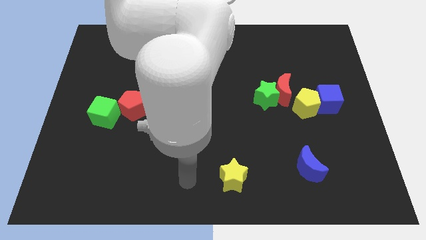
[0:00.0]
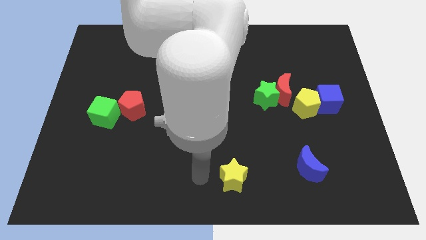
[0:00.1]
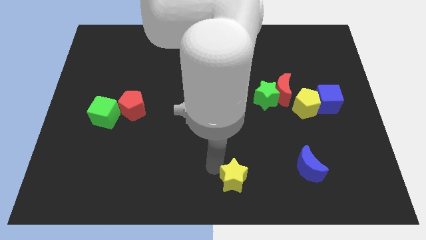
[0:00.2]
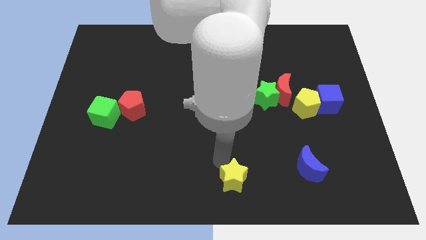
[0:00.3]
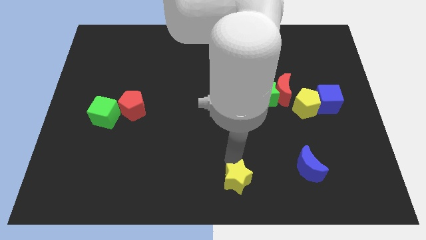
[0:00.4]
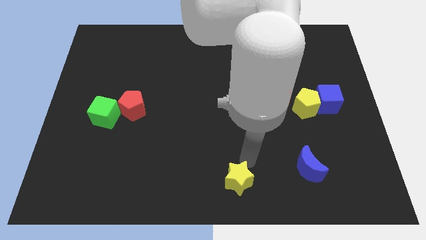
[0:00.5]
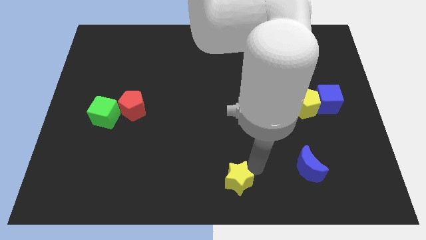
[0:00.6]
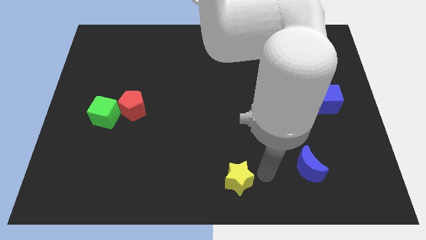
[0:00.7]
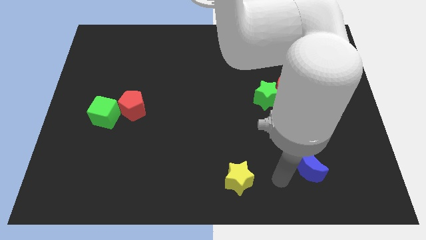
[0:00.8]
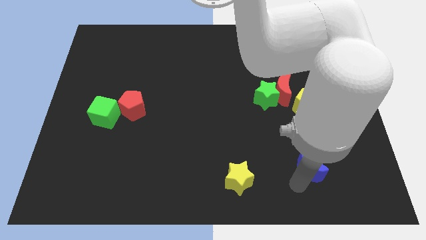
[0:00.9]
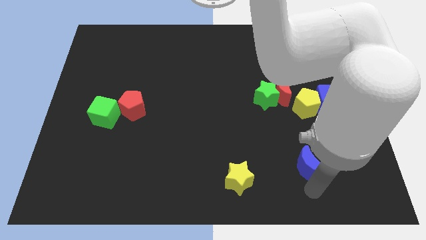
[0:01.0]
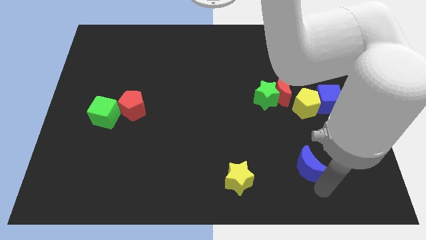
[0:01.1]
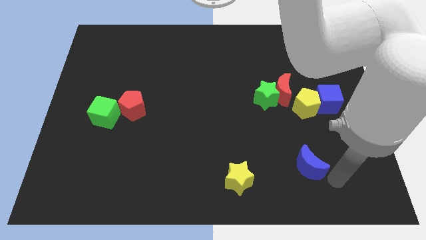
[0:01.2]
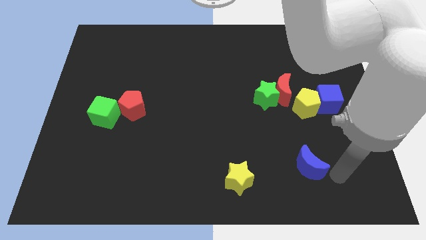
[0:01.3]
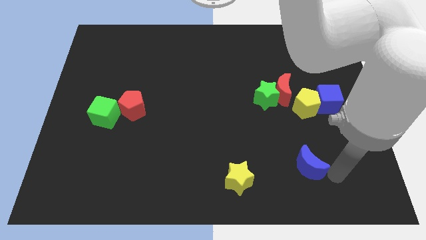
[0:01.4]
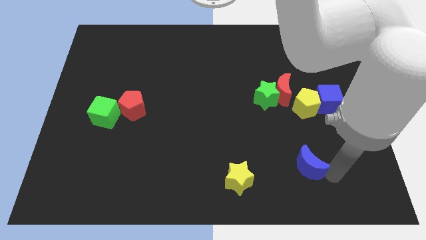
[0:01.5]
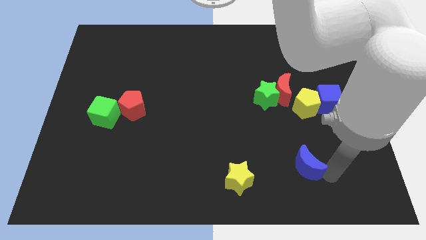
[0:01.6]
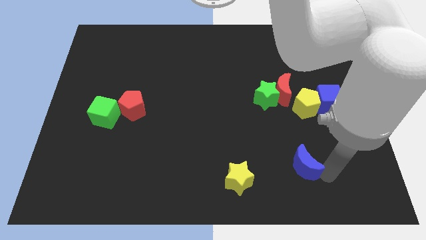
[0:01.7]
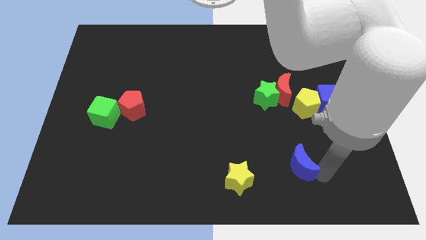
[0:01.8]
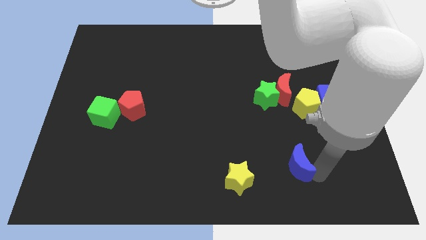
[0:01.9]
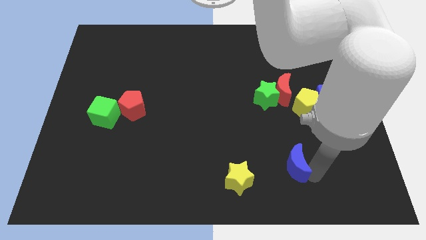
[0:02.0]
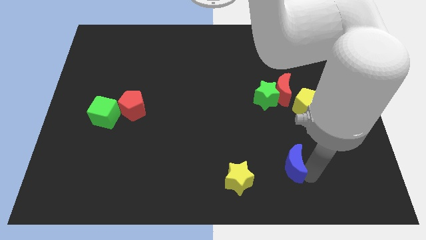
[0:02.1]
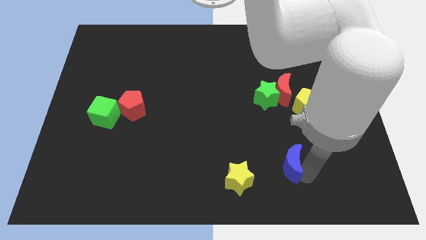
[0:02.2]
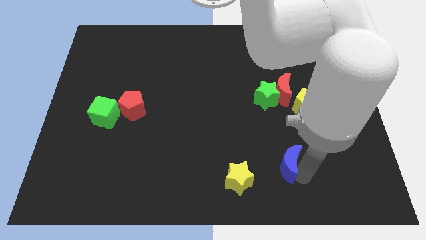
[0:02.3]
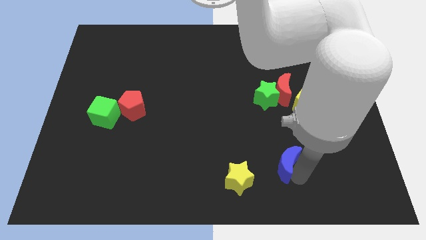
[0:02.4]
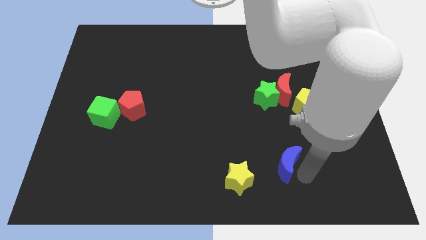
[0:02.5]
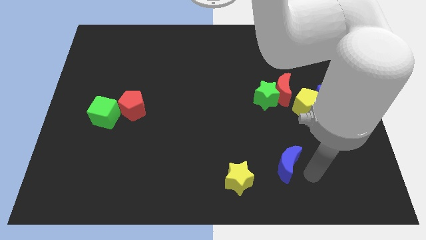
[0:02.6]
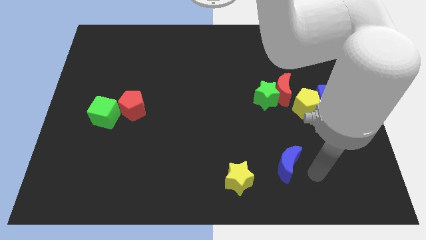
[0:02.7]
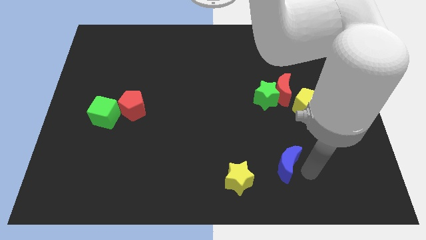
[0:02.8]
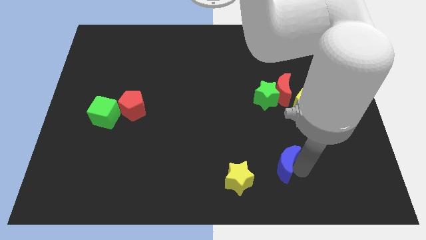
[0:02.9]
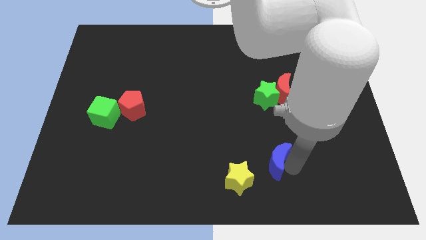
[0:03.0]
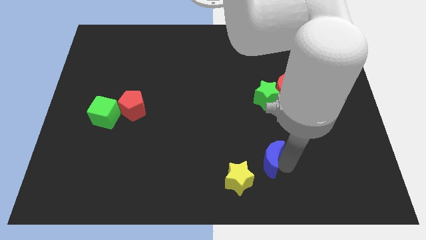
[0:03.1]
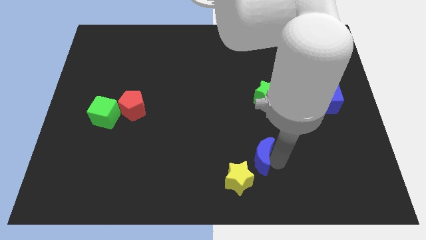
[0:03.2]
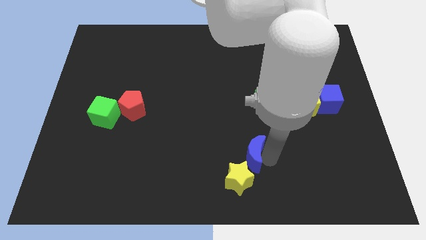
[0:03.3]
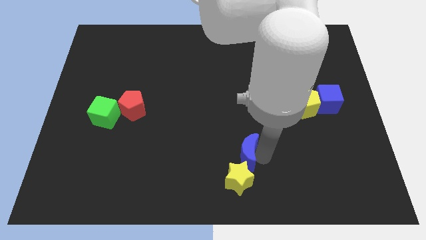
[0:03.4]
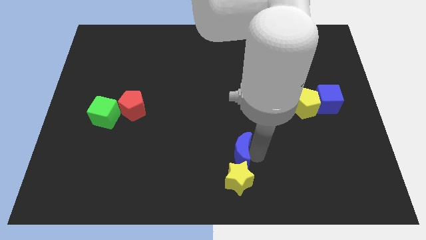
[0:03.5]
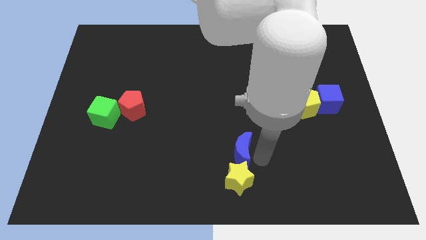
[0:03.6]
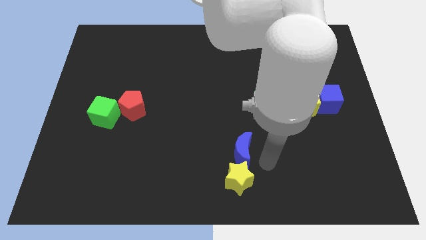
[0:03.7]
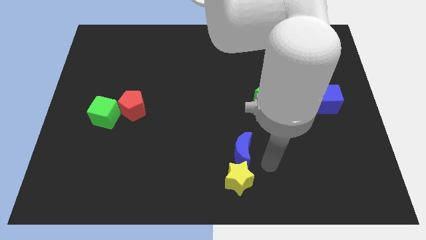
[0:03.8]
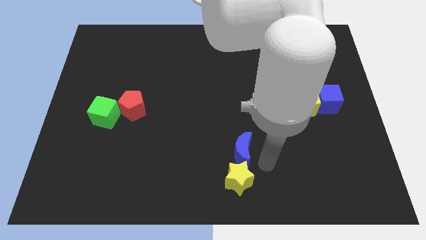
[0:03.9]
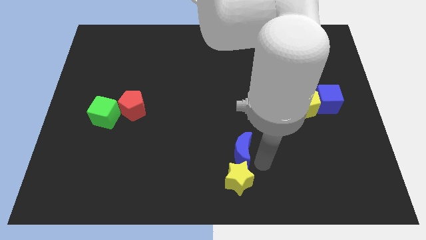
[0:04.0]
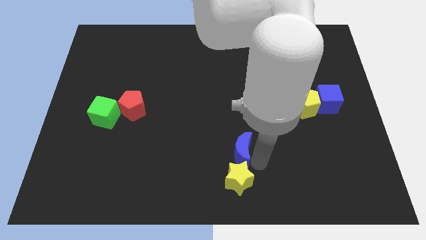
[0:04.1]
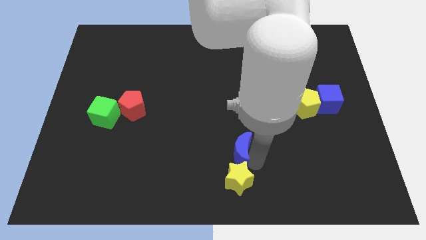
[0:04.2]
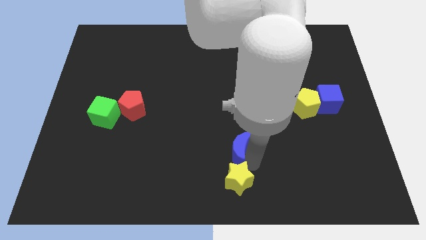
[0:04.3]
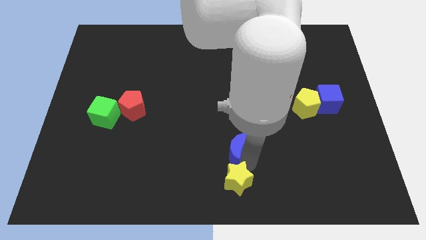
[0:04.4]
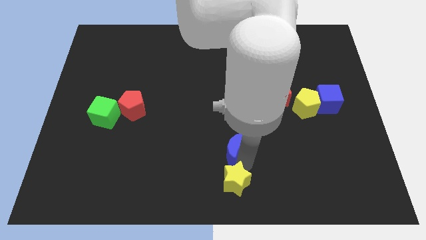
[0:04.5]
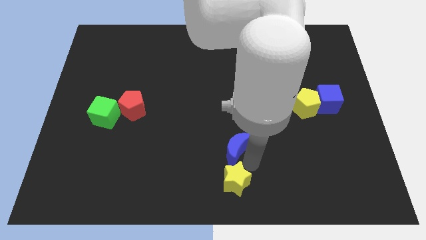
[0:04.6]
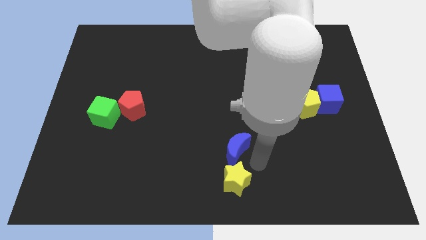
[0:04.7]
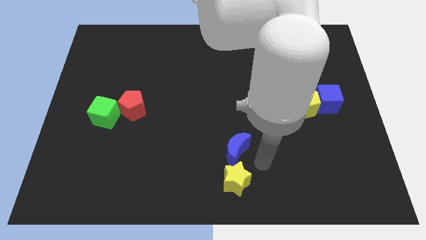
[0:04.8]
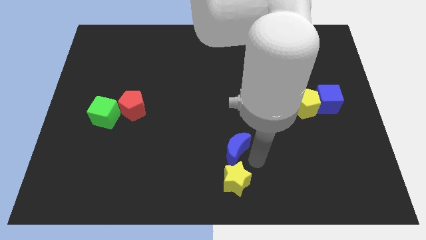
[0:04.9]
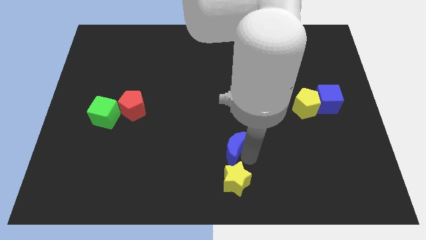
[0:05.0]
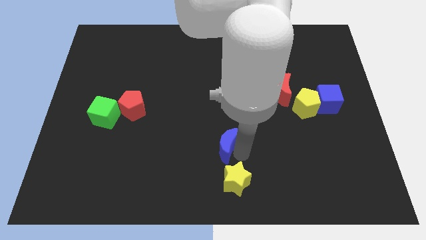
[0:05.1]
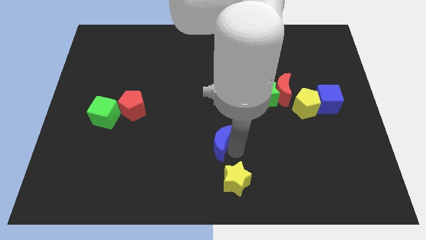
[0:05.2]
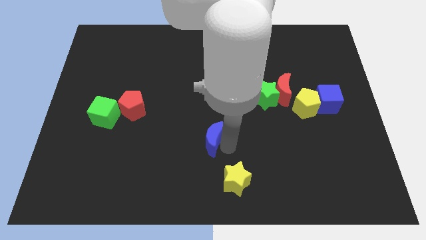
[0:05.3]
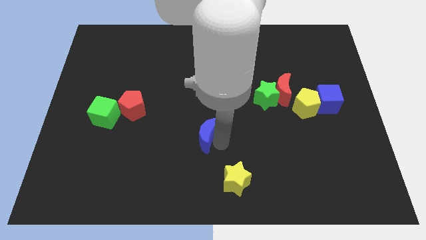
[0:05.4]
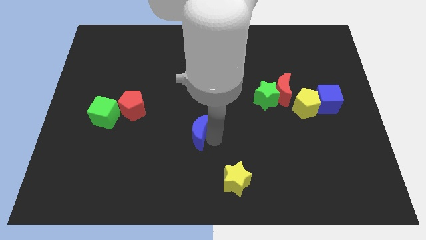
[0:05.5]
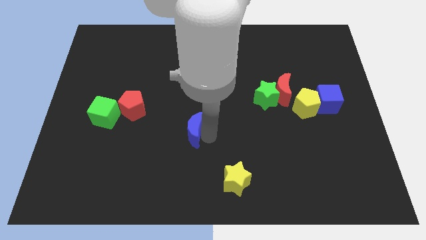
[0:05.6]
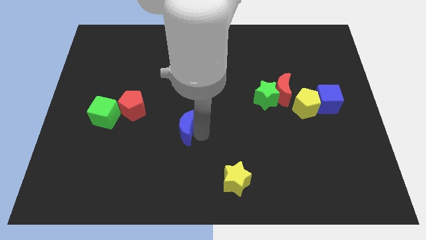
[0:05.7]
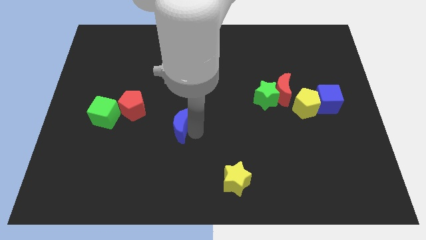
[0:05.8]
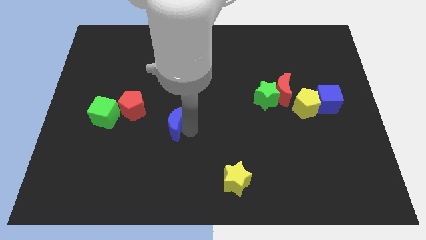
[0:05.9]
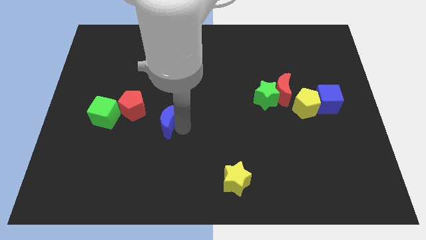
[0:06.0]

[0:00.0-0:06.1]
slide the blue moon to the right of the green cube

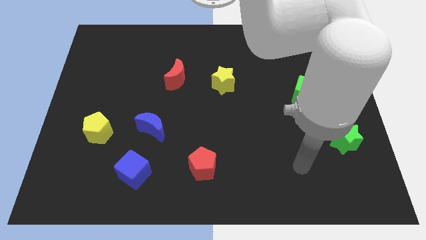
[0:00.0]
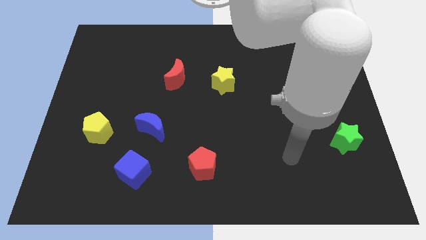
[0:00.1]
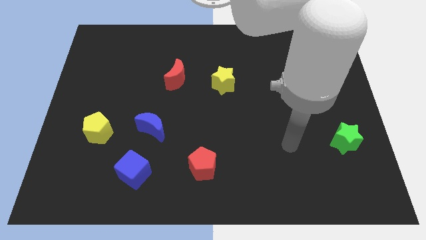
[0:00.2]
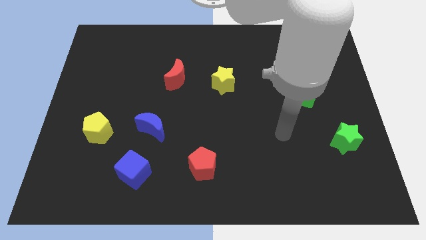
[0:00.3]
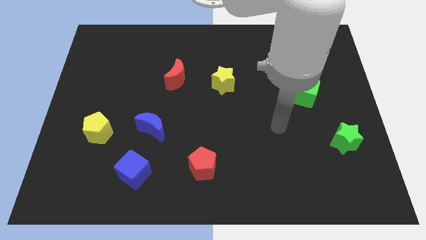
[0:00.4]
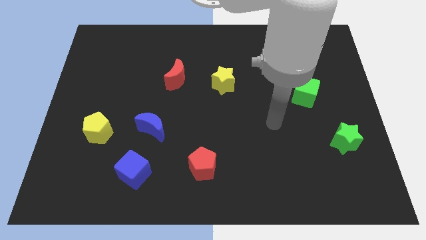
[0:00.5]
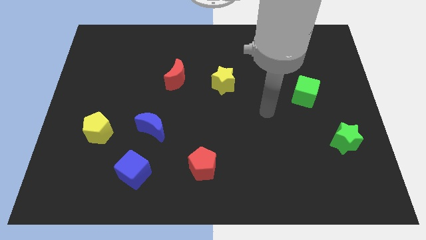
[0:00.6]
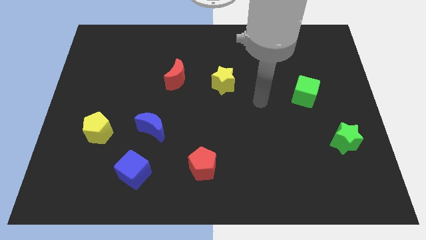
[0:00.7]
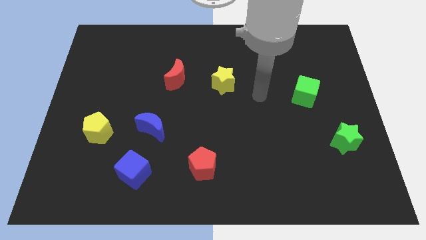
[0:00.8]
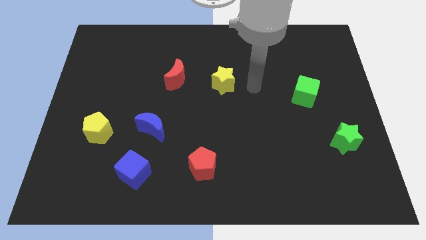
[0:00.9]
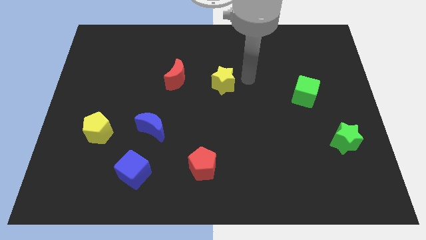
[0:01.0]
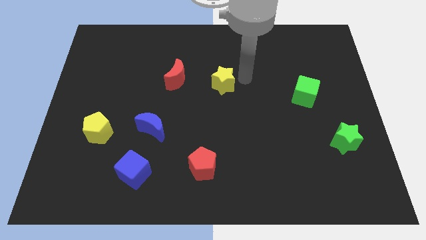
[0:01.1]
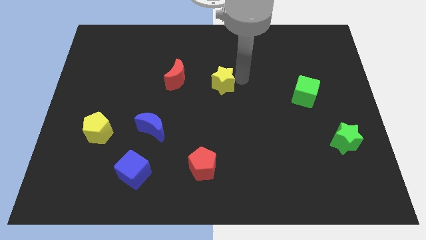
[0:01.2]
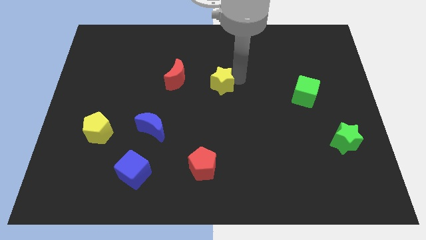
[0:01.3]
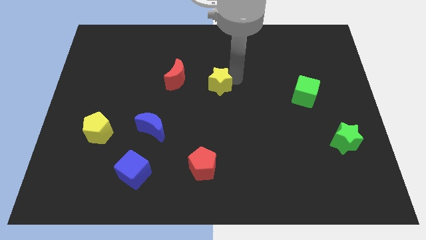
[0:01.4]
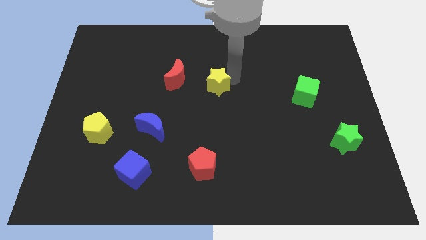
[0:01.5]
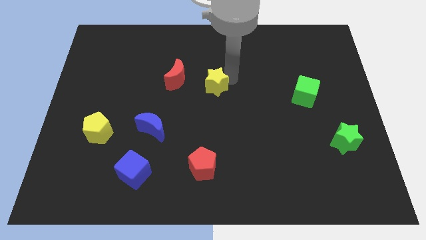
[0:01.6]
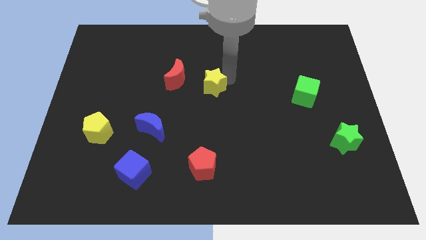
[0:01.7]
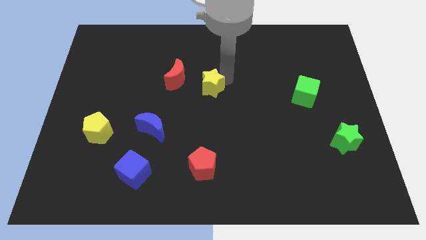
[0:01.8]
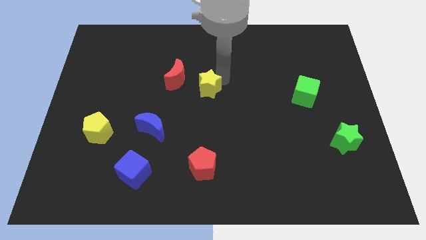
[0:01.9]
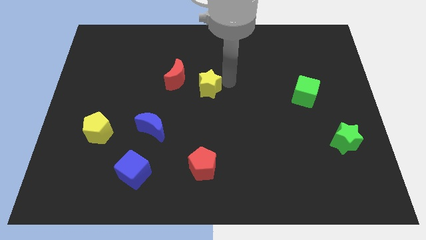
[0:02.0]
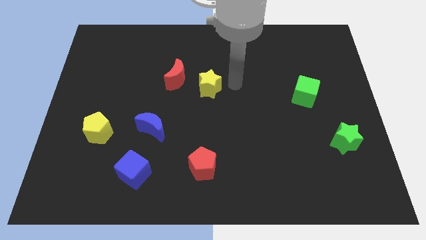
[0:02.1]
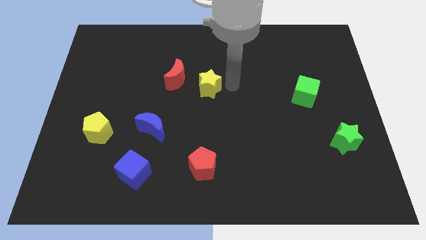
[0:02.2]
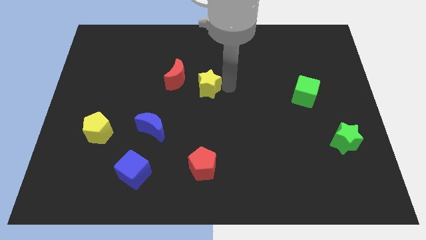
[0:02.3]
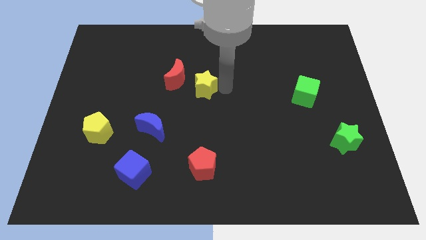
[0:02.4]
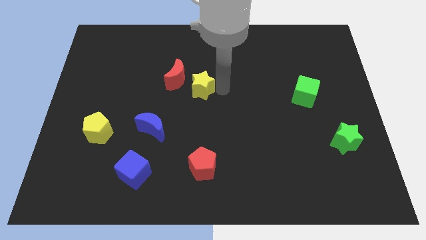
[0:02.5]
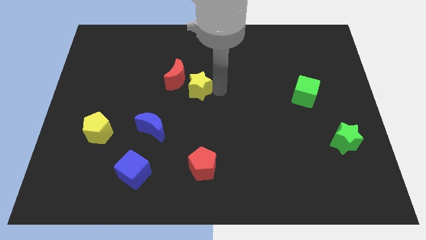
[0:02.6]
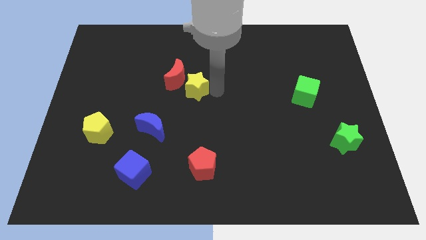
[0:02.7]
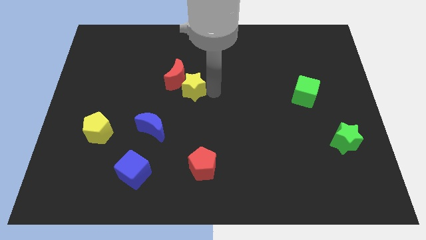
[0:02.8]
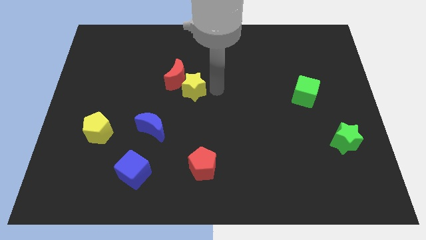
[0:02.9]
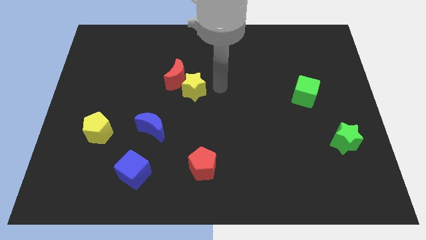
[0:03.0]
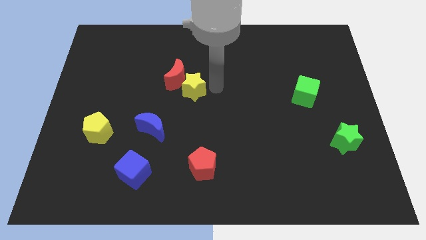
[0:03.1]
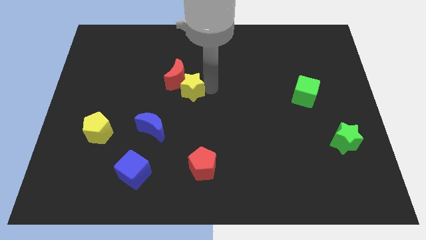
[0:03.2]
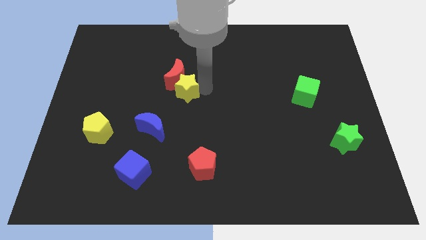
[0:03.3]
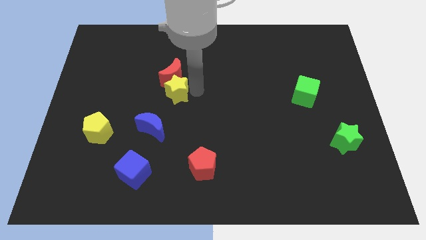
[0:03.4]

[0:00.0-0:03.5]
push the yellow star diagonally down and to the left of the red moon
